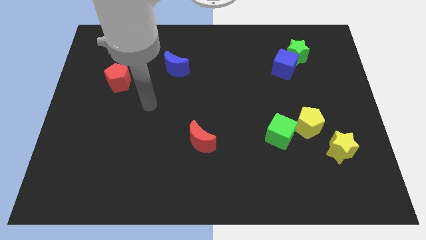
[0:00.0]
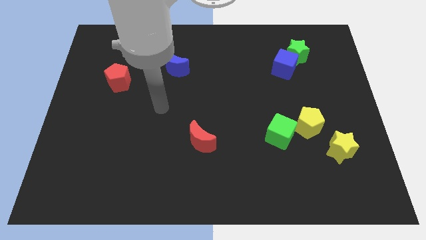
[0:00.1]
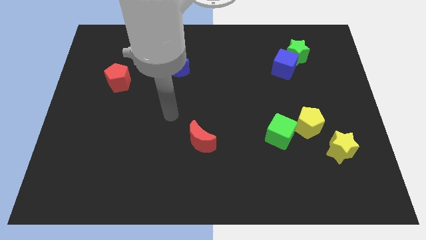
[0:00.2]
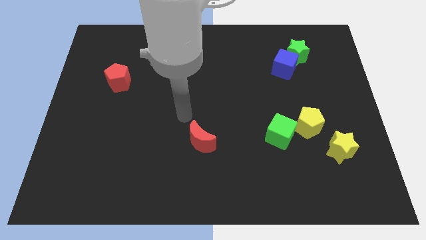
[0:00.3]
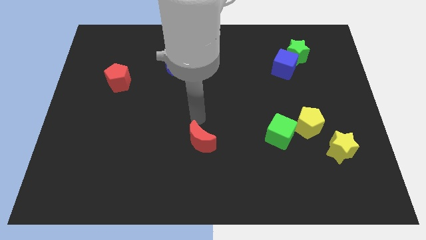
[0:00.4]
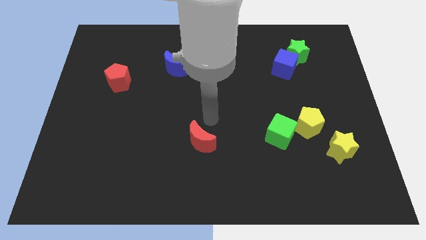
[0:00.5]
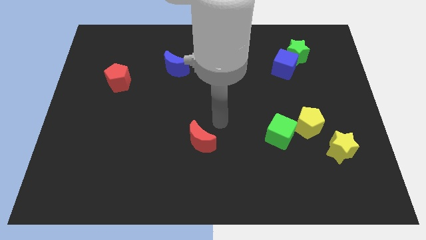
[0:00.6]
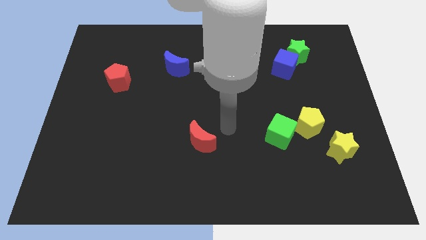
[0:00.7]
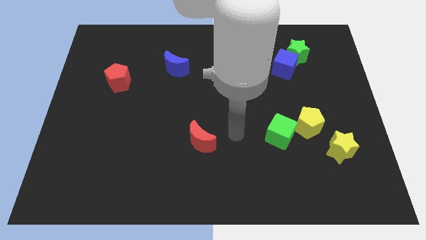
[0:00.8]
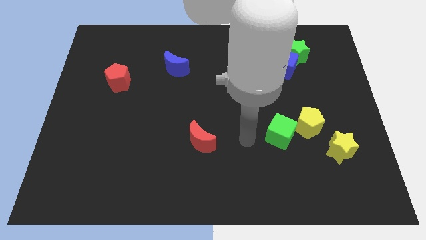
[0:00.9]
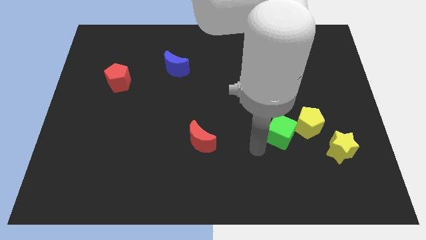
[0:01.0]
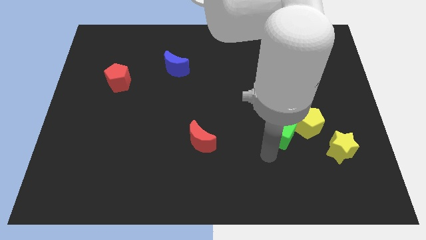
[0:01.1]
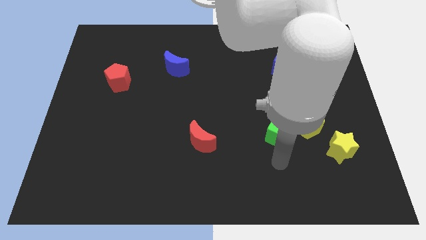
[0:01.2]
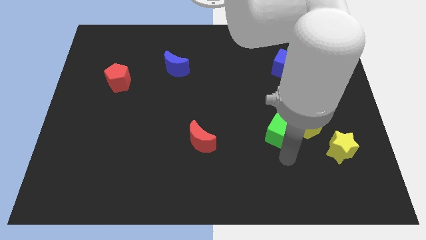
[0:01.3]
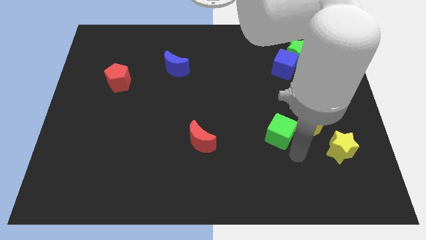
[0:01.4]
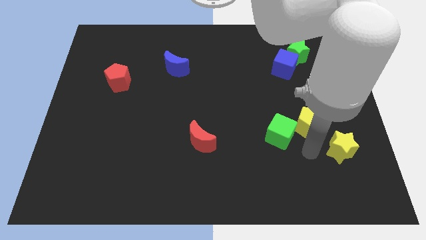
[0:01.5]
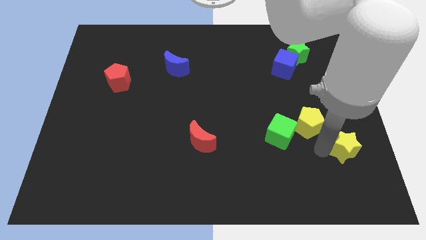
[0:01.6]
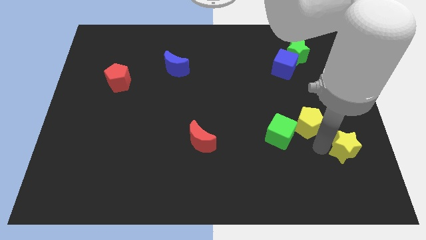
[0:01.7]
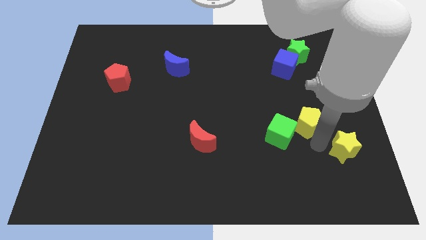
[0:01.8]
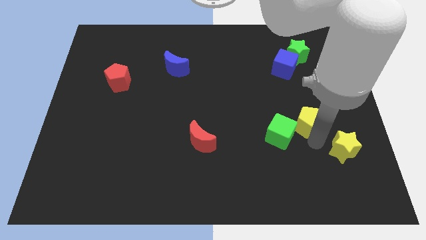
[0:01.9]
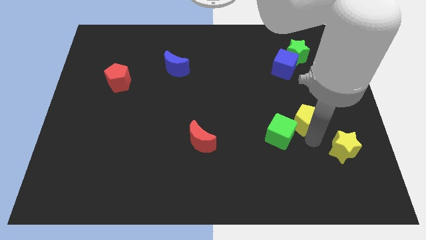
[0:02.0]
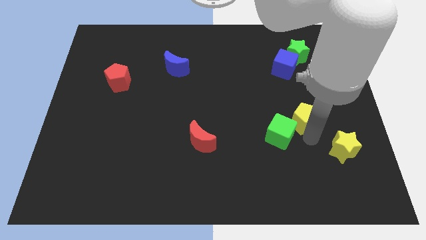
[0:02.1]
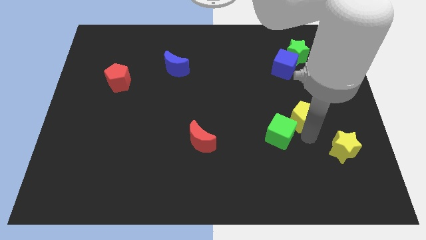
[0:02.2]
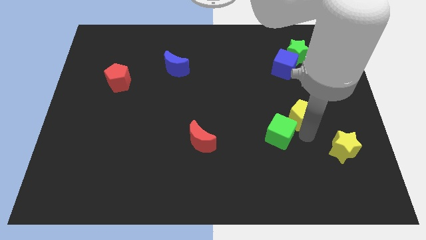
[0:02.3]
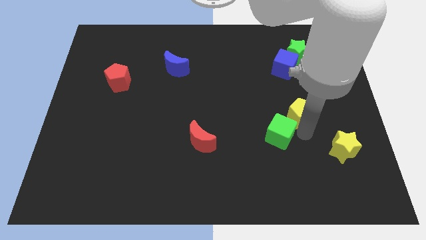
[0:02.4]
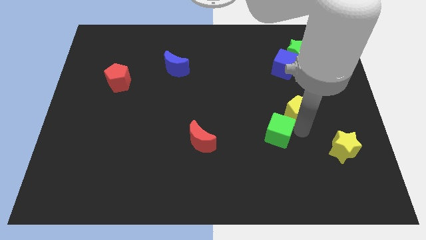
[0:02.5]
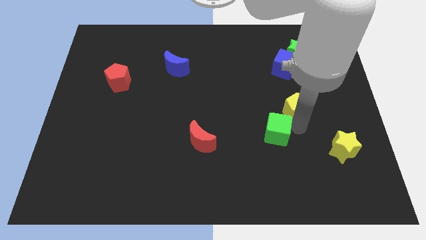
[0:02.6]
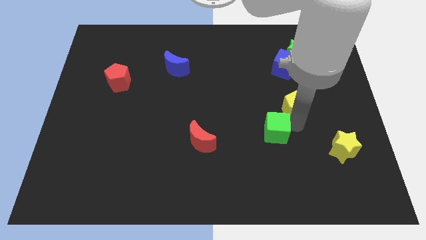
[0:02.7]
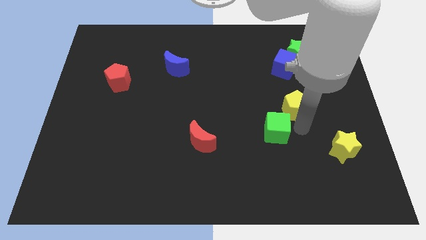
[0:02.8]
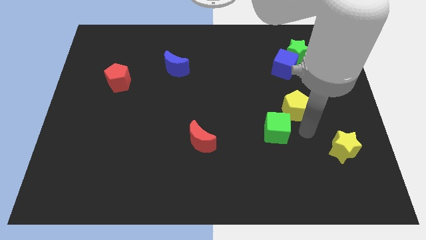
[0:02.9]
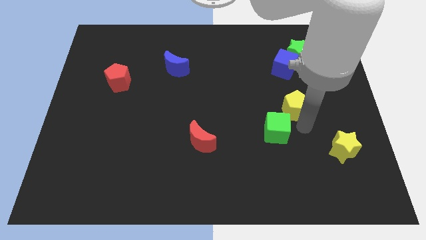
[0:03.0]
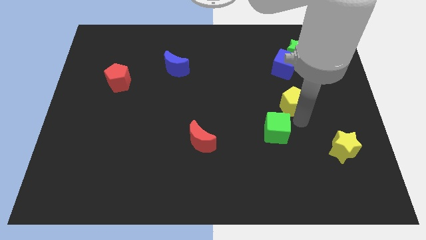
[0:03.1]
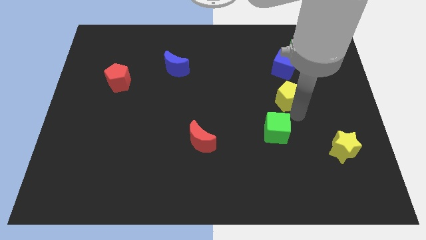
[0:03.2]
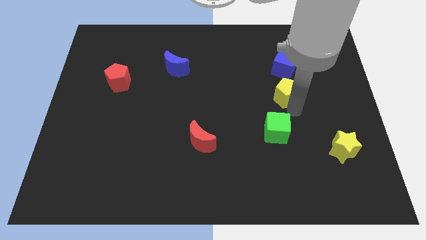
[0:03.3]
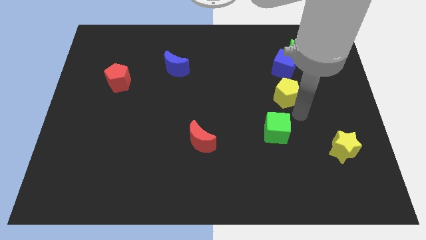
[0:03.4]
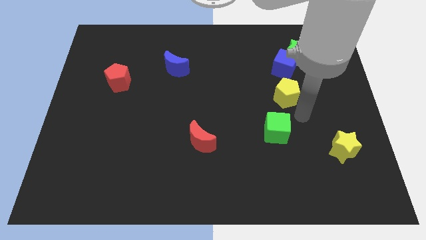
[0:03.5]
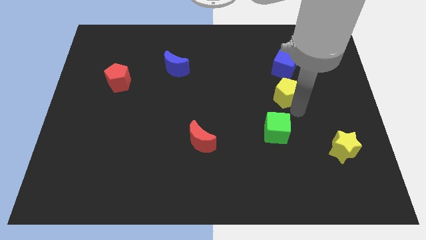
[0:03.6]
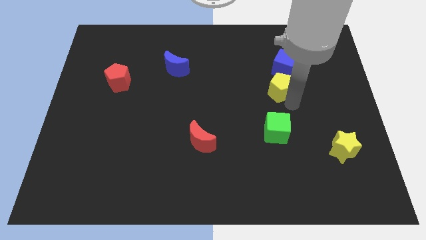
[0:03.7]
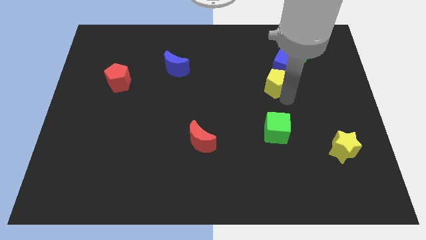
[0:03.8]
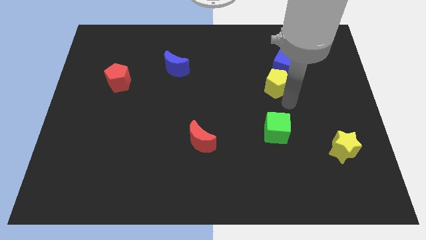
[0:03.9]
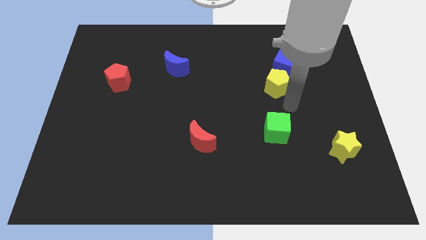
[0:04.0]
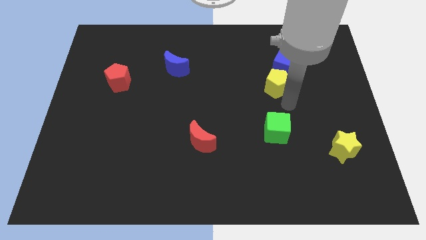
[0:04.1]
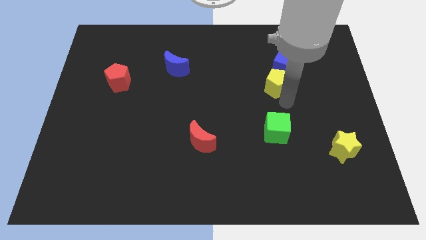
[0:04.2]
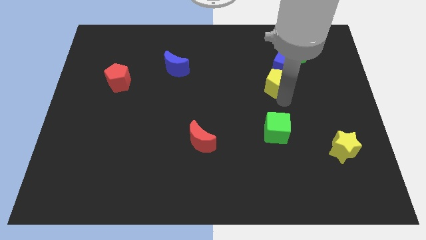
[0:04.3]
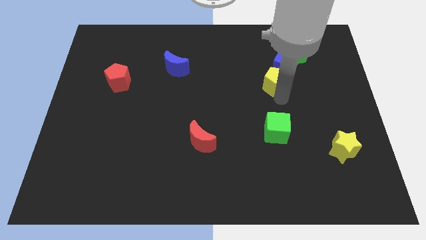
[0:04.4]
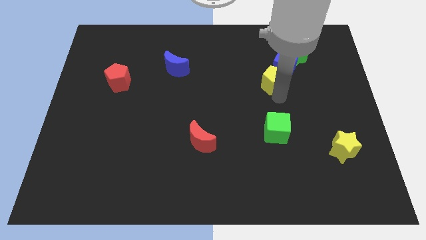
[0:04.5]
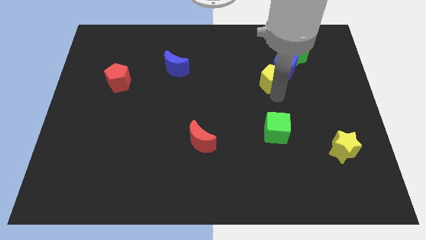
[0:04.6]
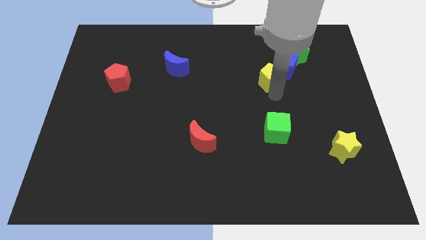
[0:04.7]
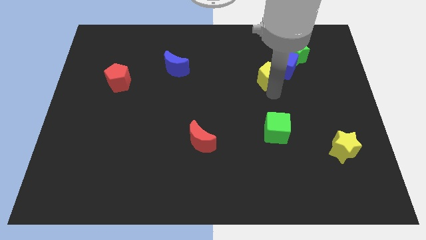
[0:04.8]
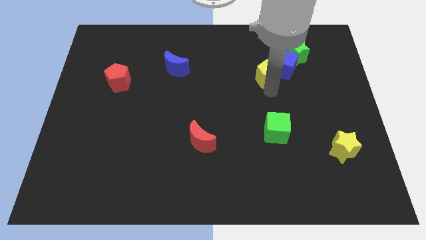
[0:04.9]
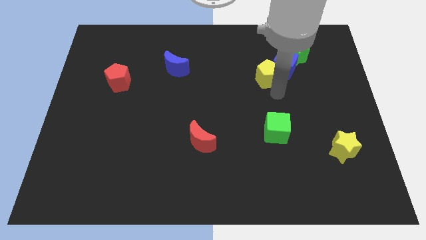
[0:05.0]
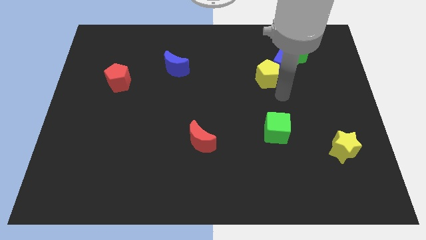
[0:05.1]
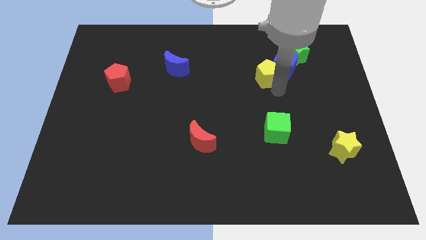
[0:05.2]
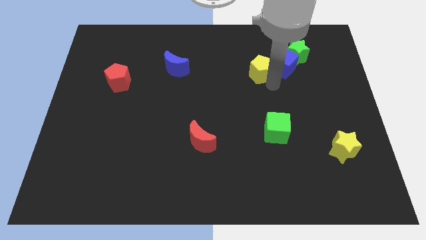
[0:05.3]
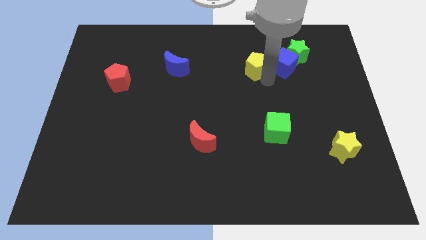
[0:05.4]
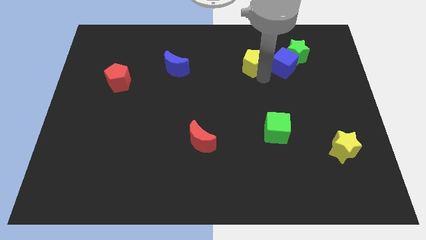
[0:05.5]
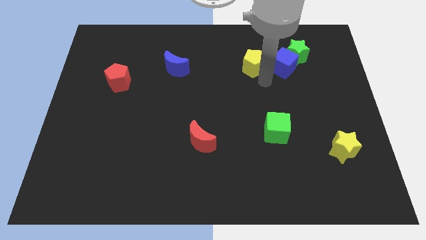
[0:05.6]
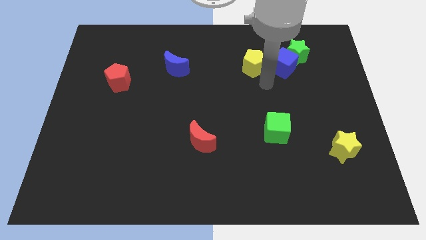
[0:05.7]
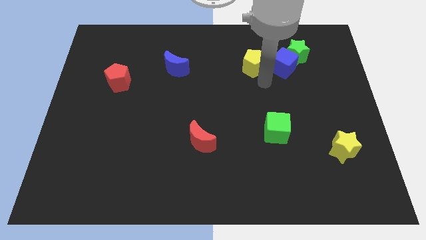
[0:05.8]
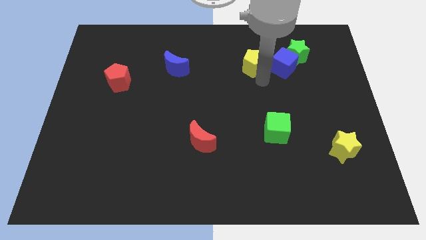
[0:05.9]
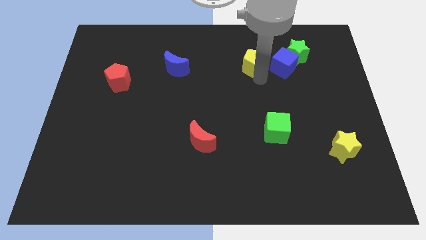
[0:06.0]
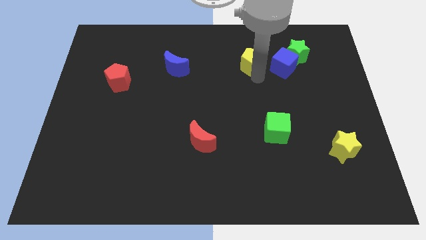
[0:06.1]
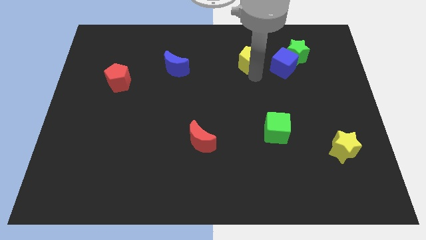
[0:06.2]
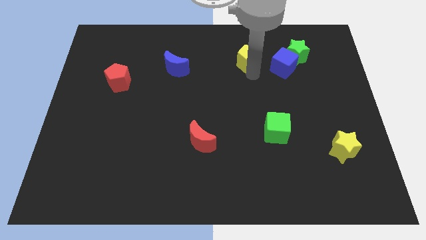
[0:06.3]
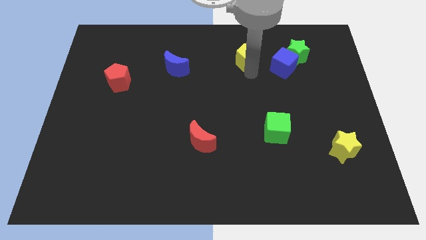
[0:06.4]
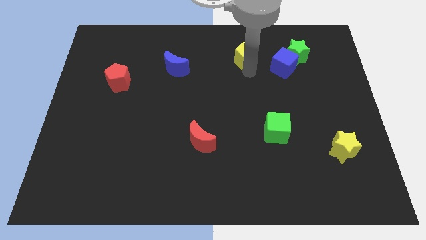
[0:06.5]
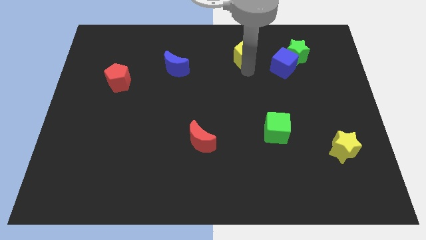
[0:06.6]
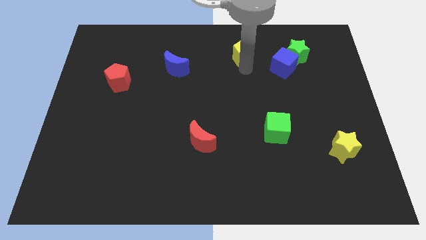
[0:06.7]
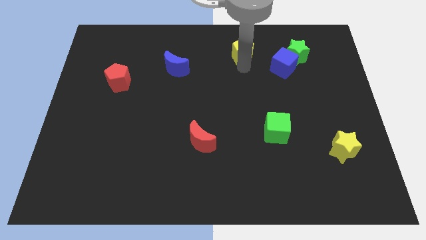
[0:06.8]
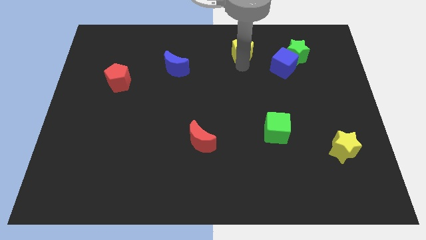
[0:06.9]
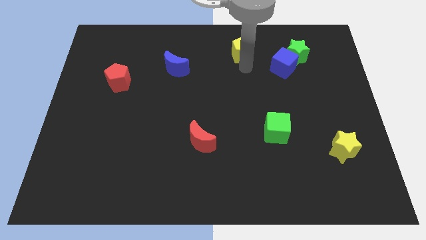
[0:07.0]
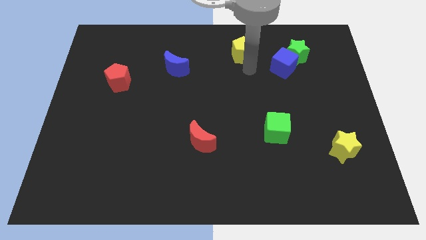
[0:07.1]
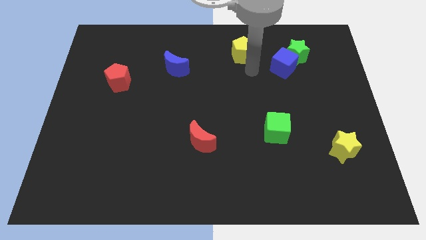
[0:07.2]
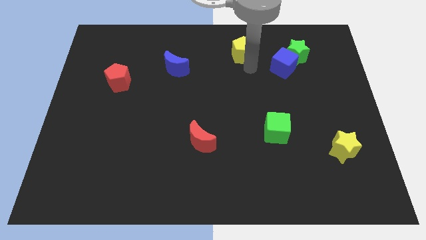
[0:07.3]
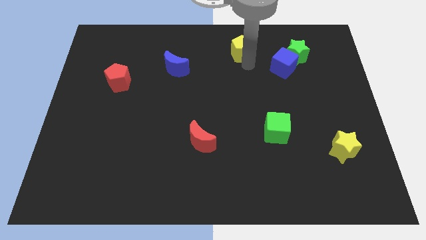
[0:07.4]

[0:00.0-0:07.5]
move the yellow pentagon to the top
